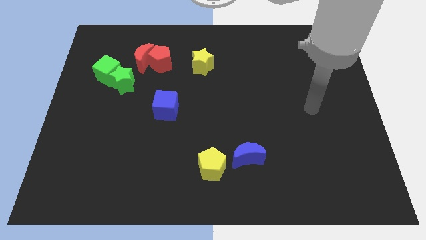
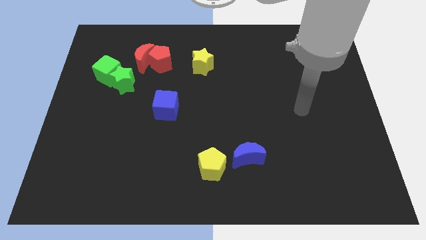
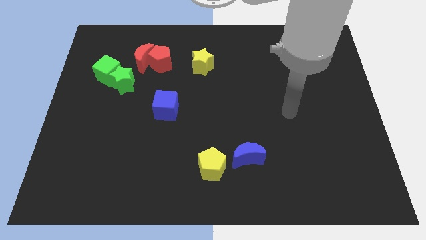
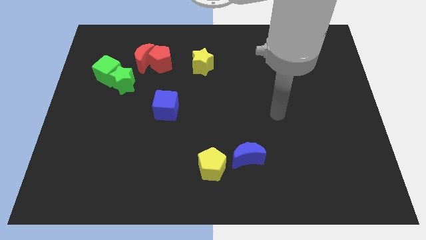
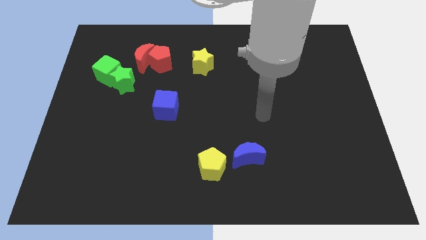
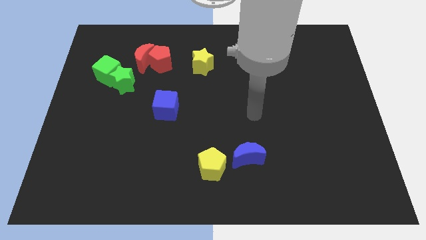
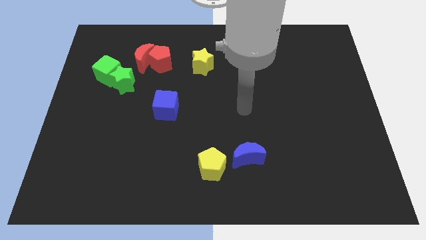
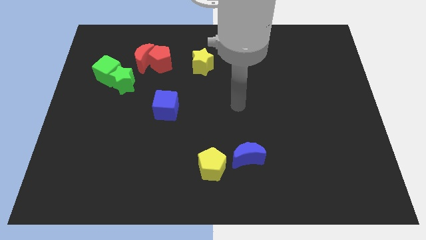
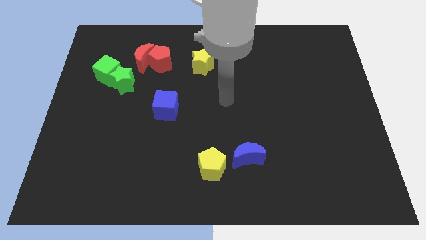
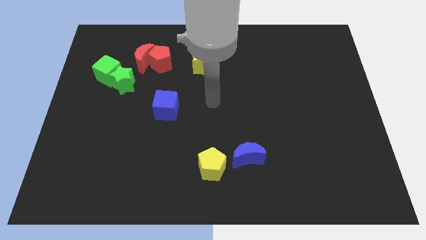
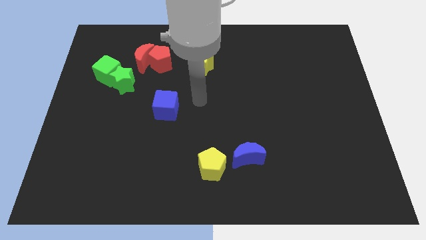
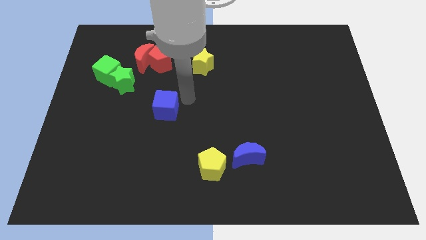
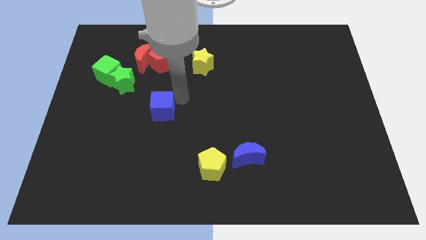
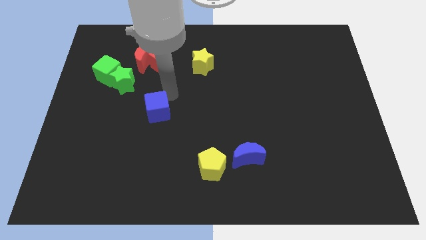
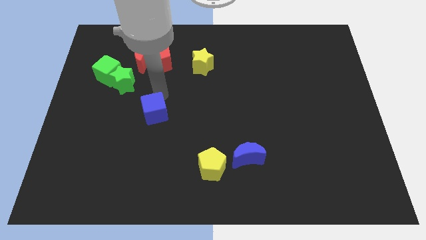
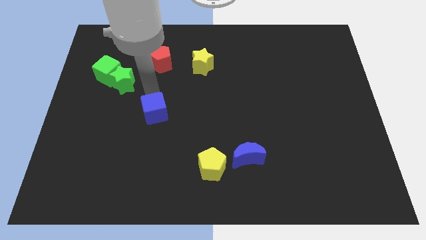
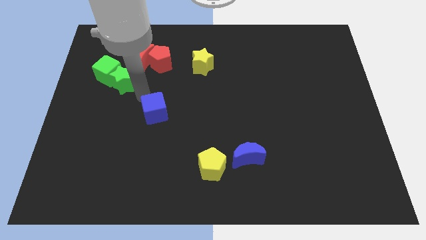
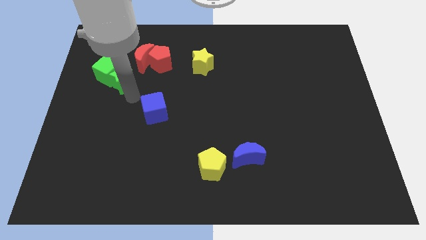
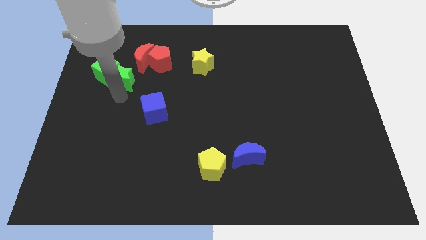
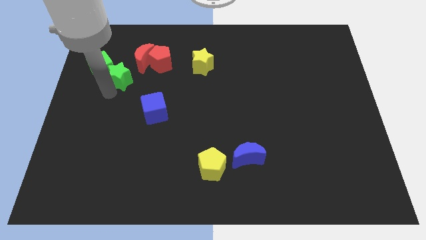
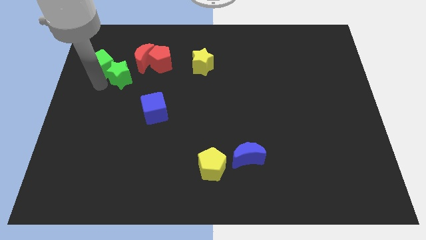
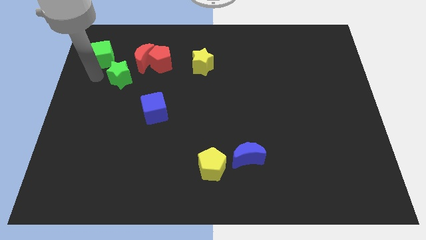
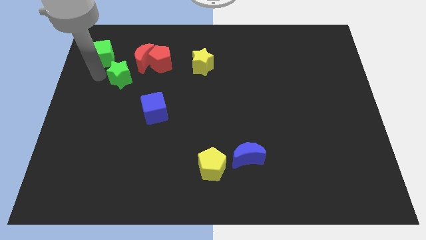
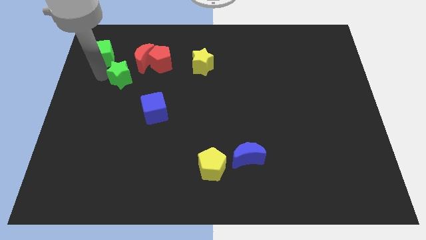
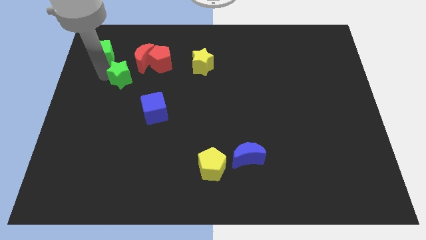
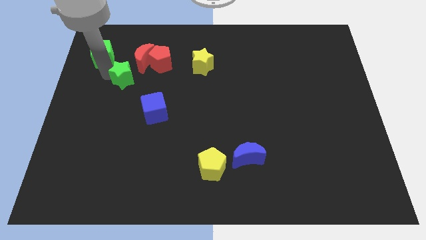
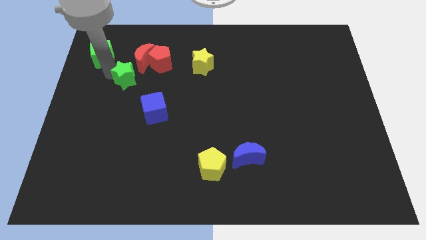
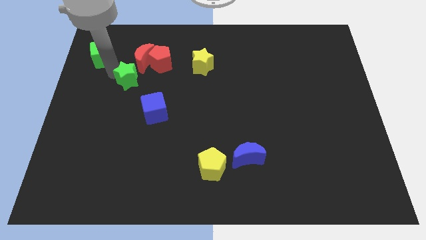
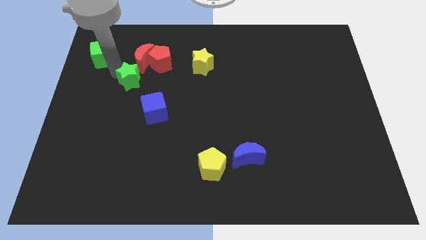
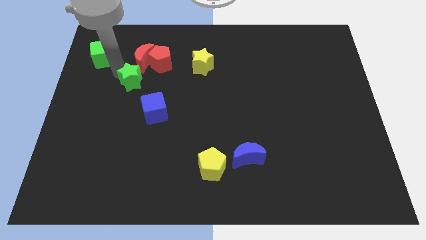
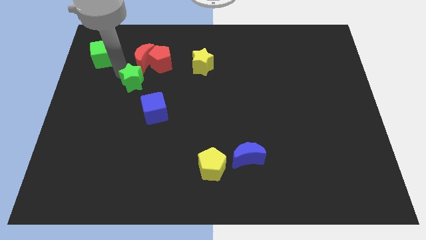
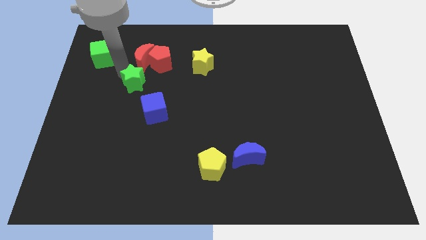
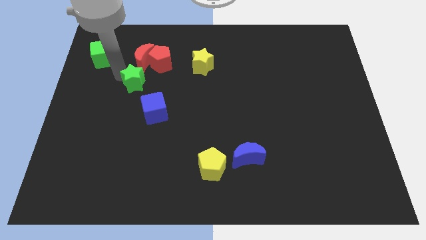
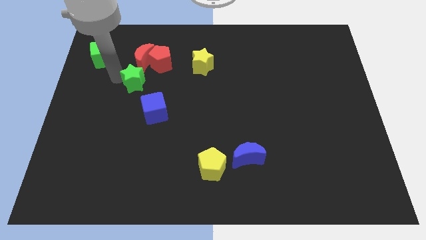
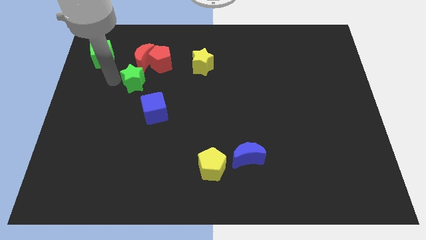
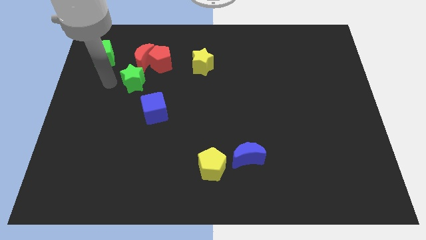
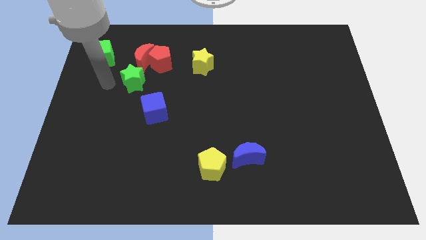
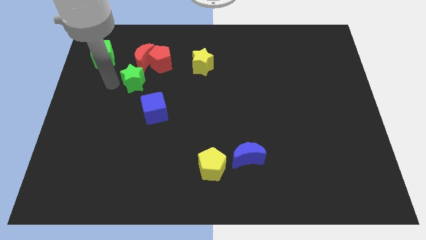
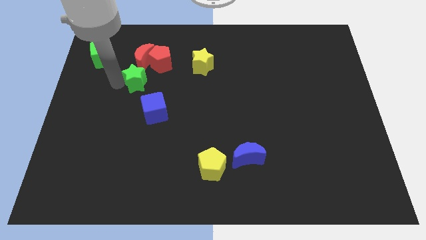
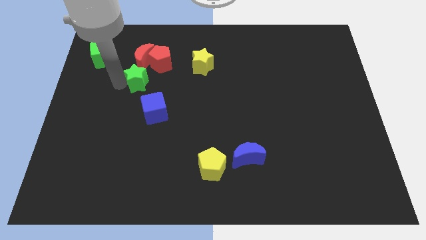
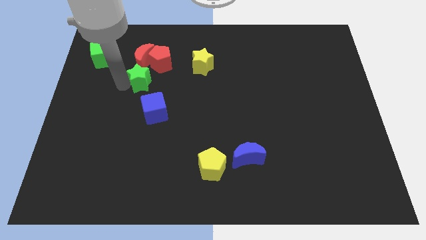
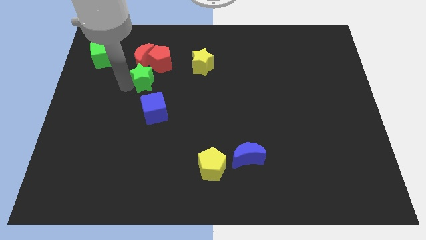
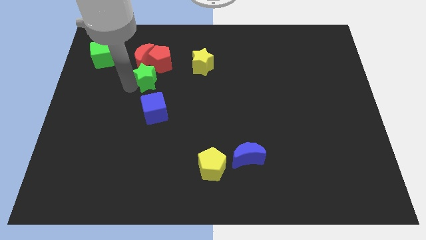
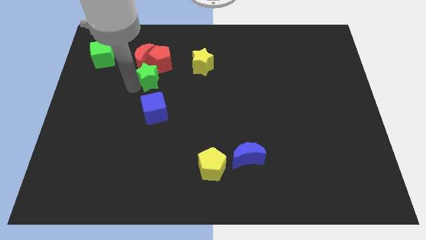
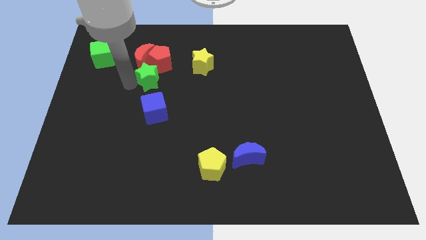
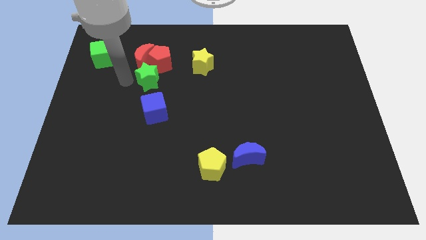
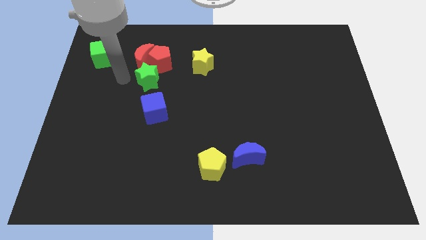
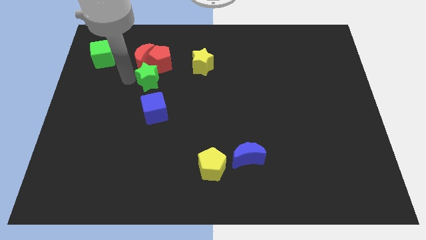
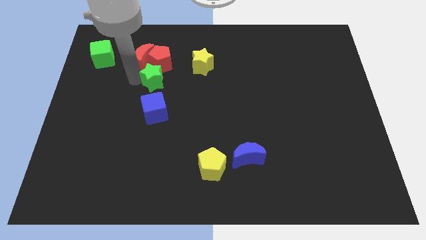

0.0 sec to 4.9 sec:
slightly move the green star to the right

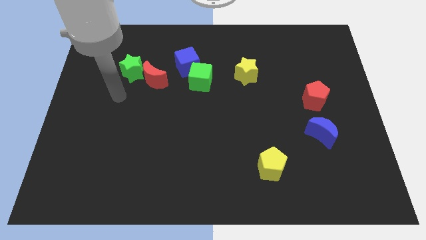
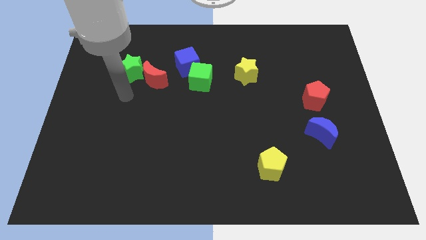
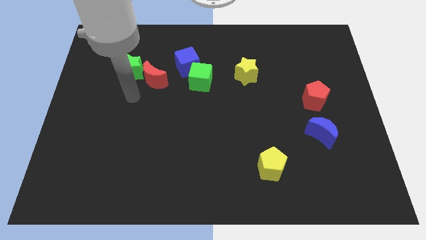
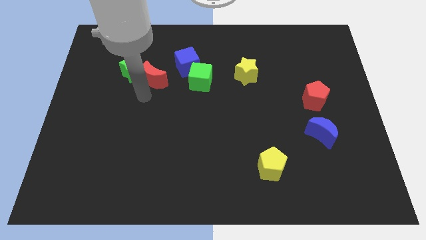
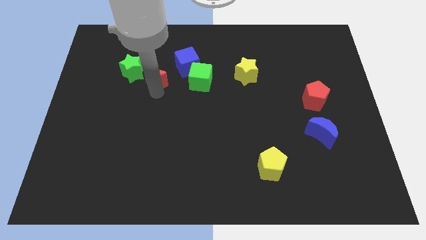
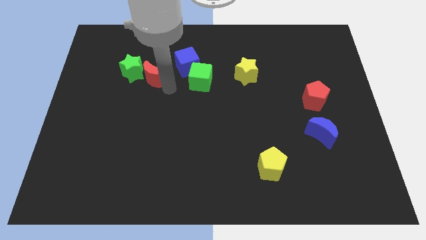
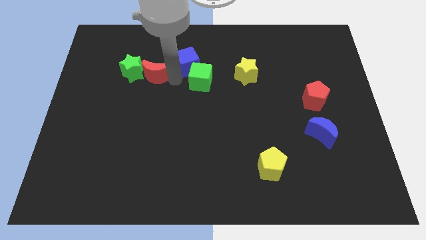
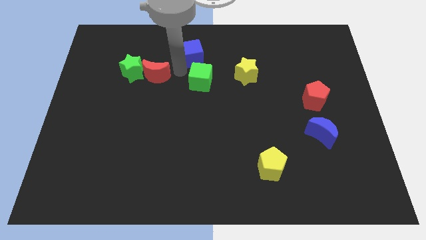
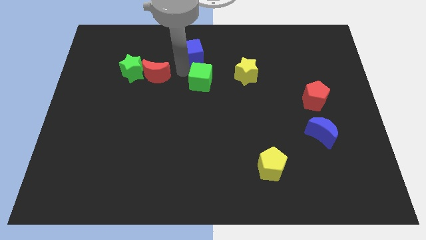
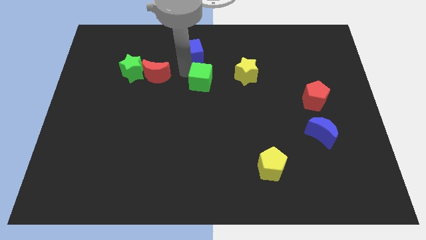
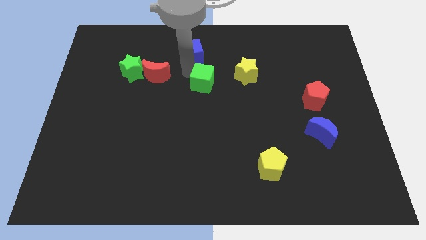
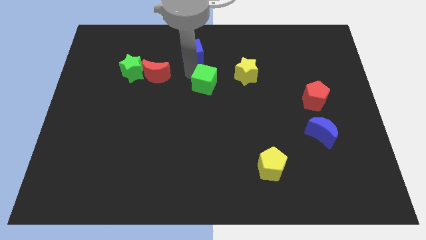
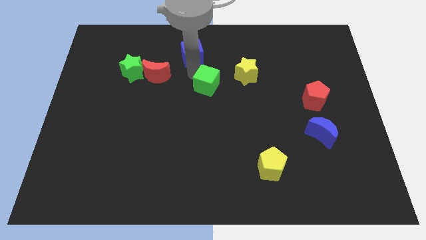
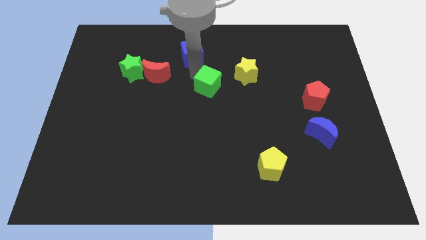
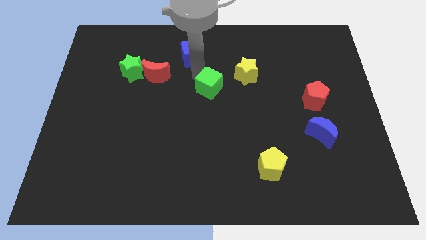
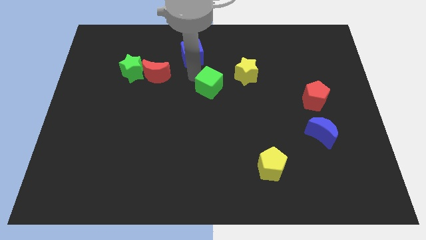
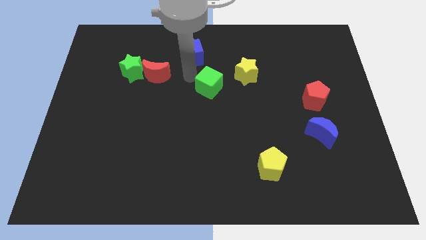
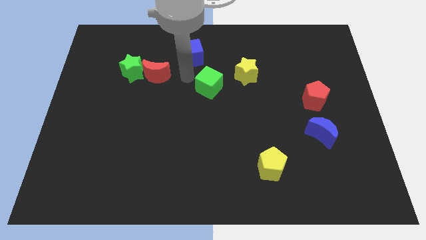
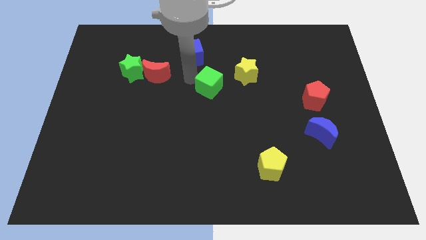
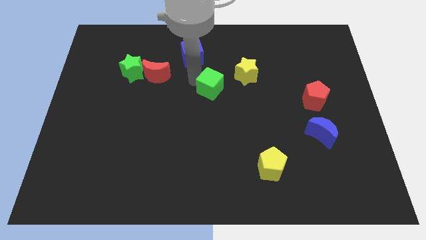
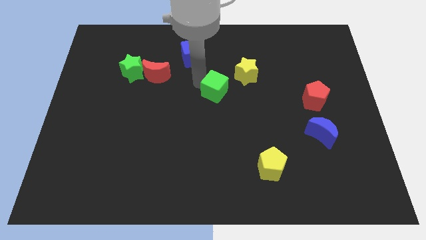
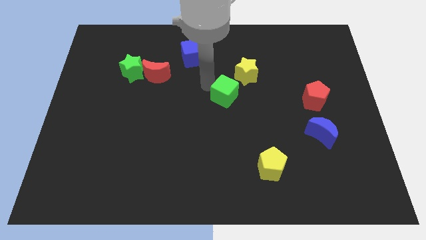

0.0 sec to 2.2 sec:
slide the green cube slightly downwards and right

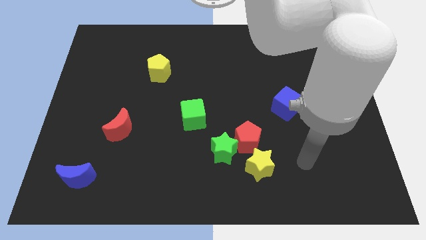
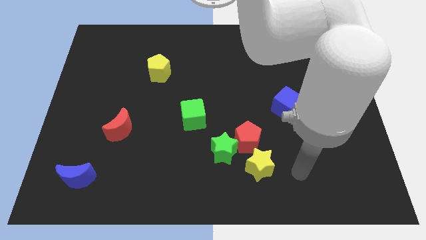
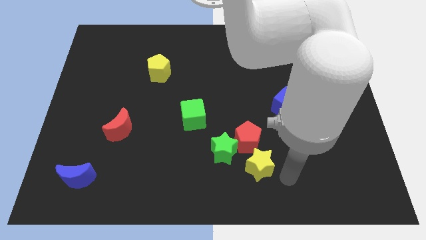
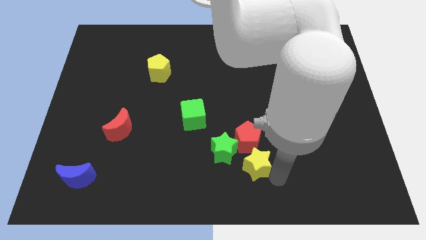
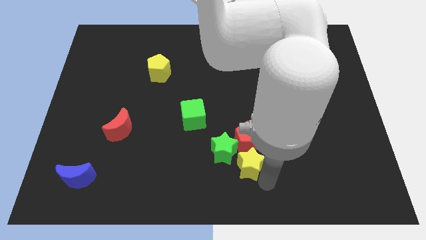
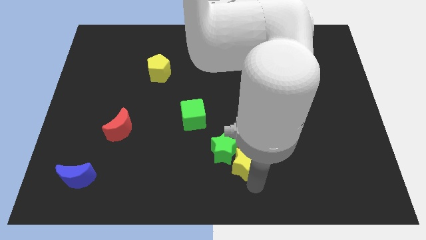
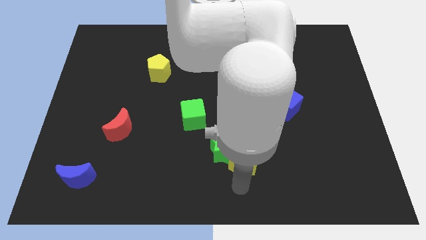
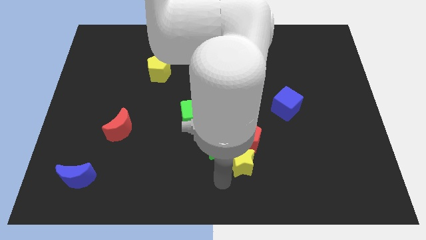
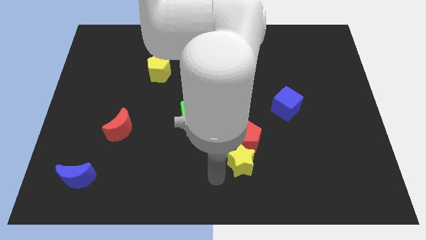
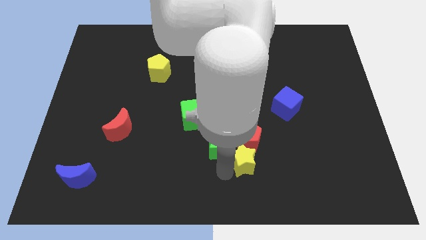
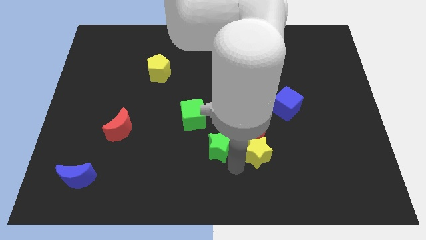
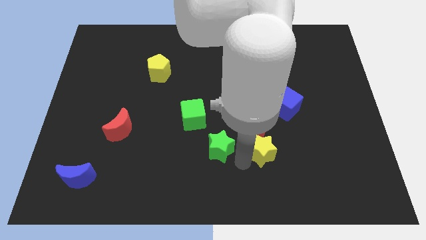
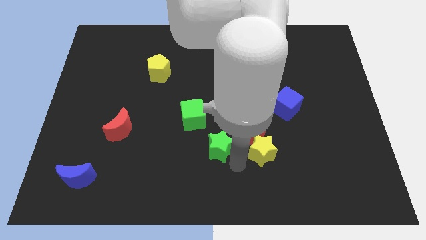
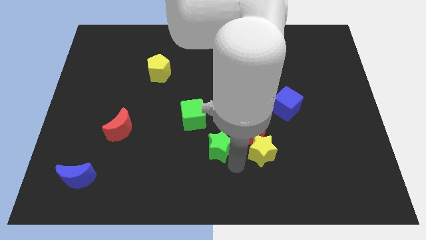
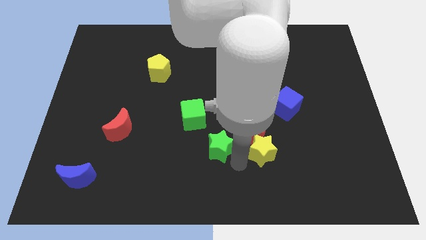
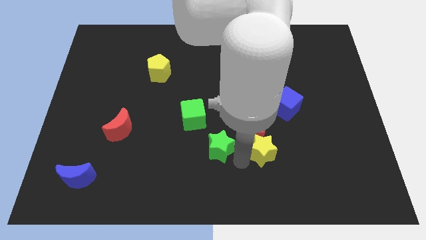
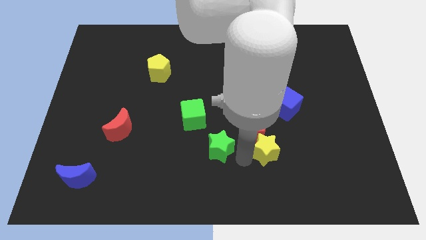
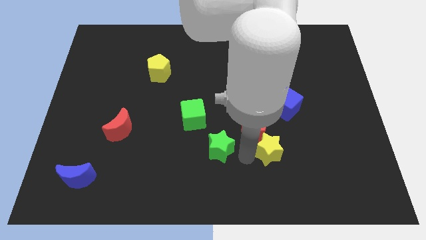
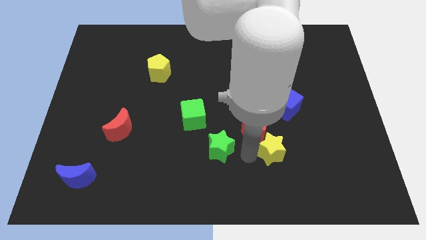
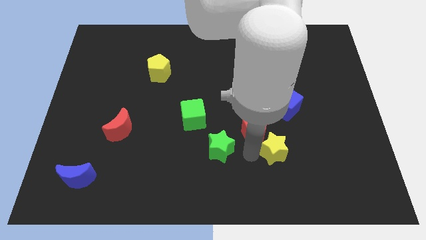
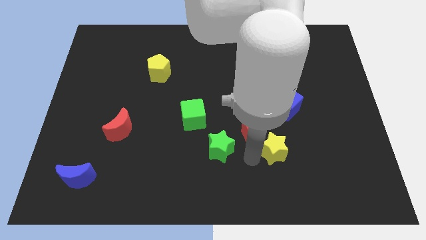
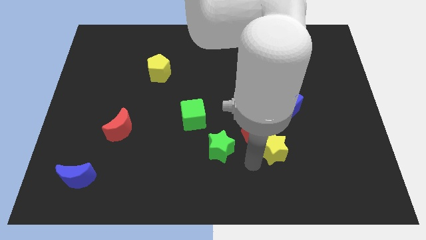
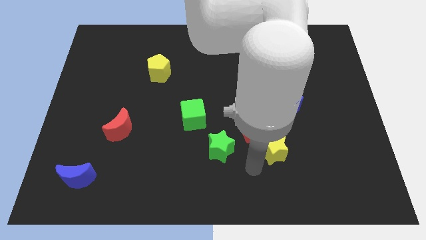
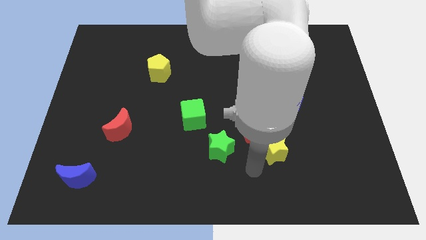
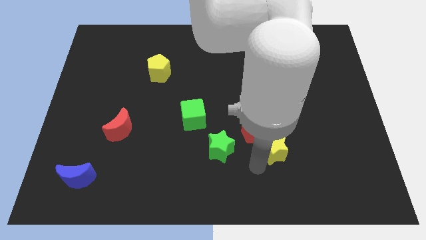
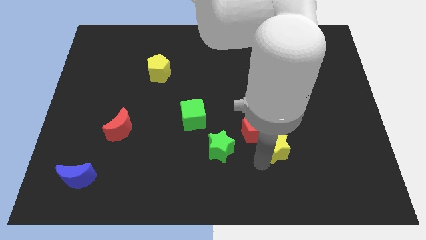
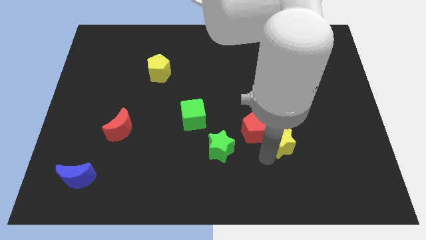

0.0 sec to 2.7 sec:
slide the yellow star upwards and right slightly
